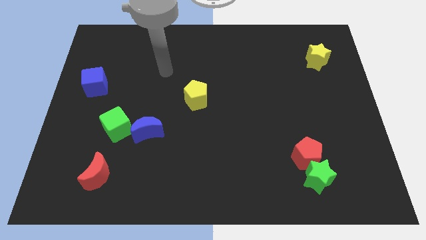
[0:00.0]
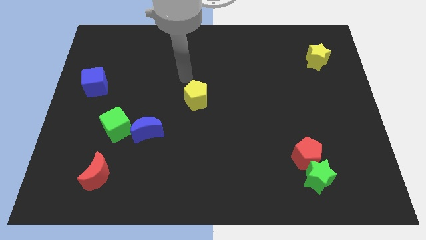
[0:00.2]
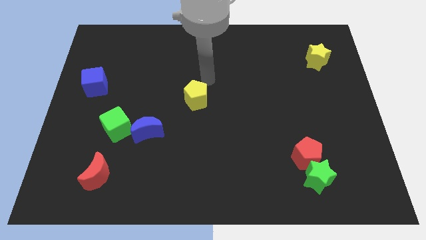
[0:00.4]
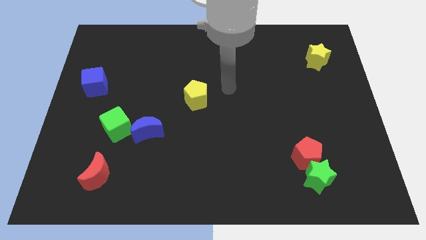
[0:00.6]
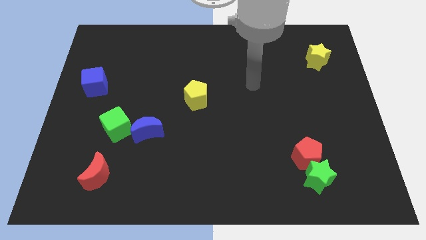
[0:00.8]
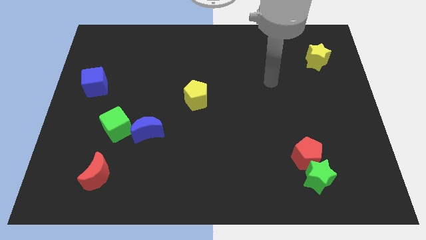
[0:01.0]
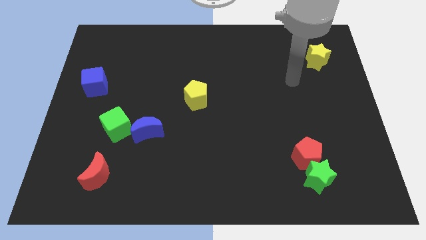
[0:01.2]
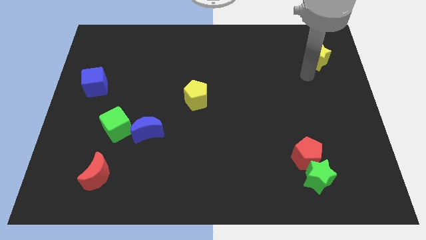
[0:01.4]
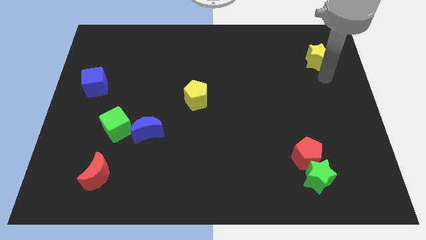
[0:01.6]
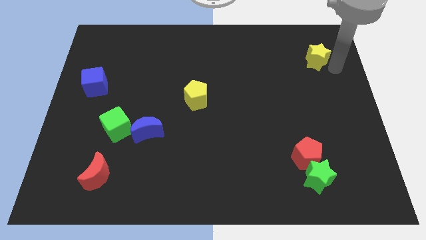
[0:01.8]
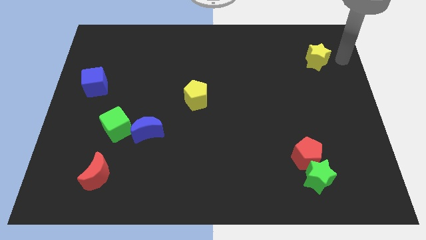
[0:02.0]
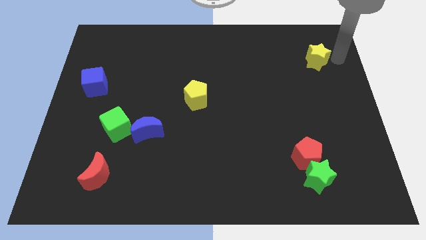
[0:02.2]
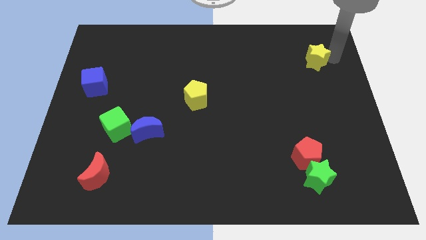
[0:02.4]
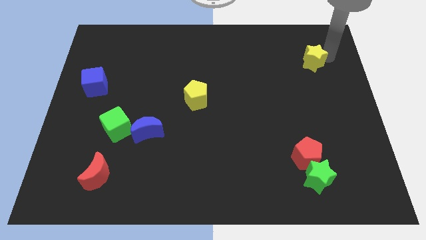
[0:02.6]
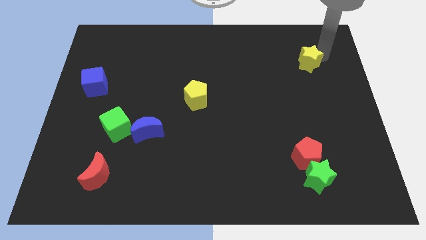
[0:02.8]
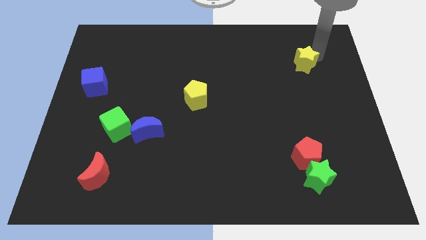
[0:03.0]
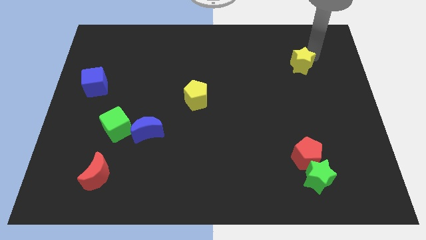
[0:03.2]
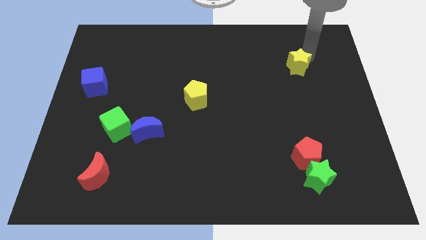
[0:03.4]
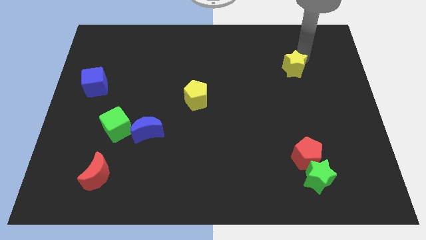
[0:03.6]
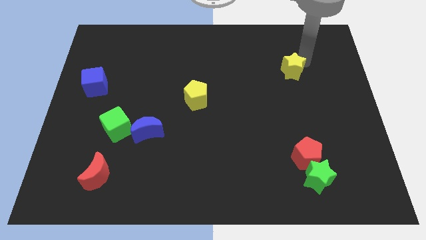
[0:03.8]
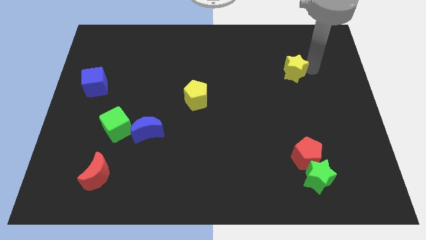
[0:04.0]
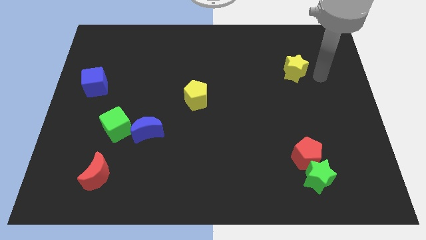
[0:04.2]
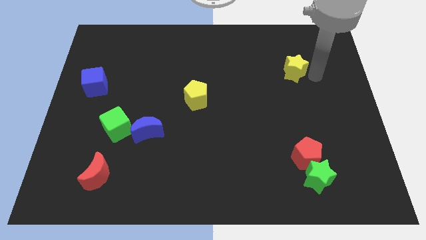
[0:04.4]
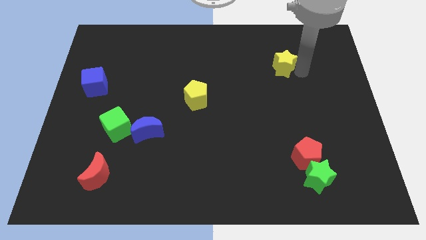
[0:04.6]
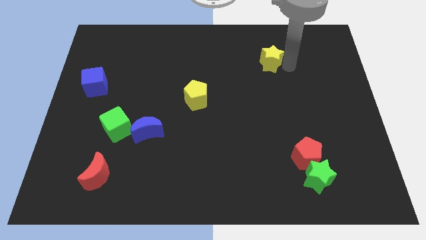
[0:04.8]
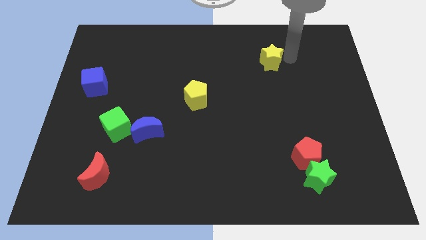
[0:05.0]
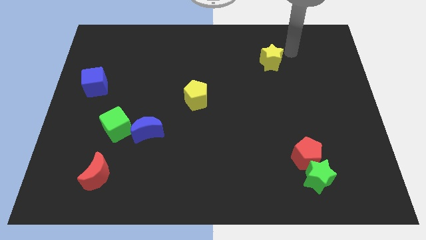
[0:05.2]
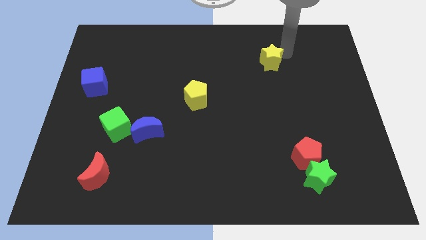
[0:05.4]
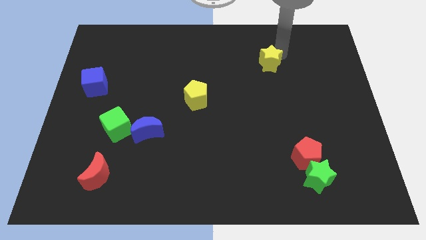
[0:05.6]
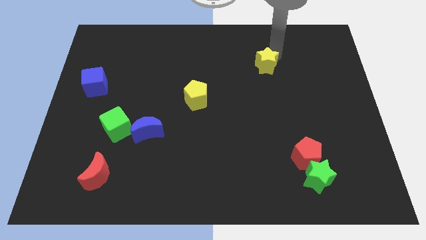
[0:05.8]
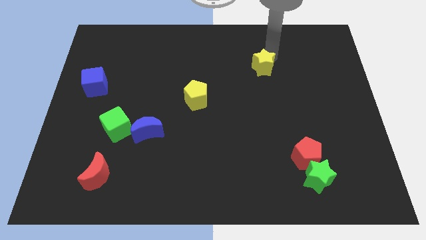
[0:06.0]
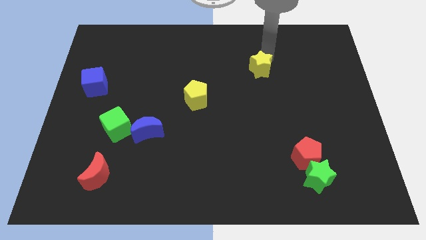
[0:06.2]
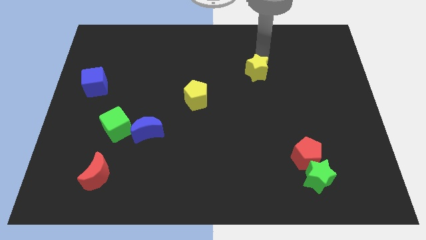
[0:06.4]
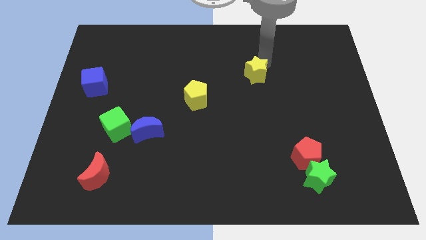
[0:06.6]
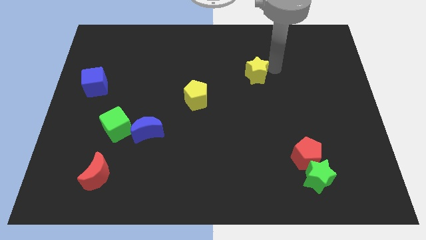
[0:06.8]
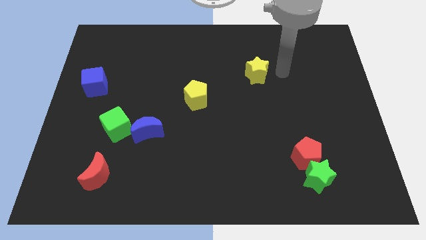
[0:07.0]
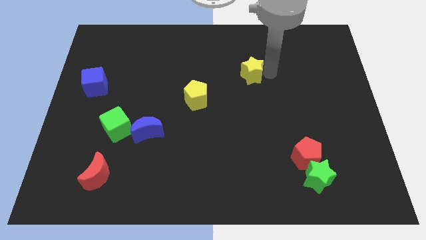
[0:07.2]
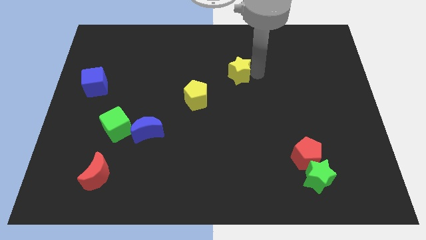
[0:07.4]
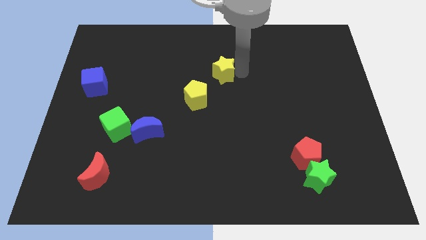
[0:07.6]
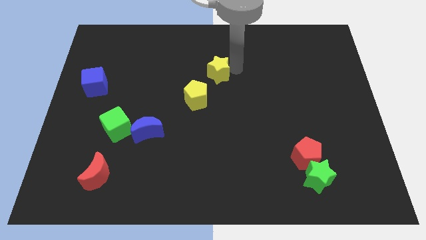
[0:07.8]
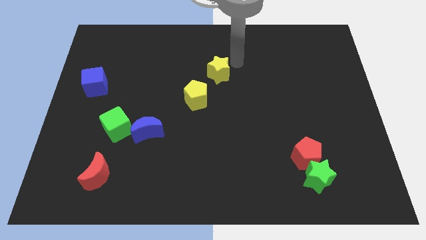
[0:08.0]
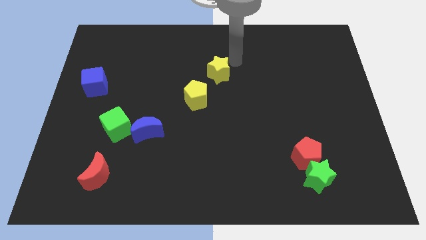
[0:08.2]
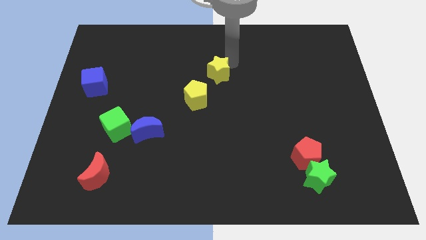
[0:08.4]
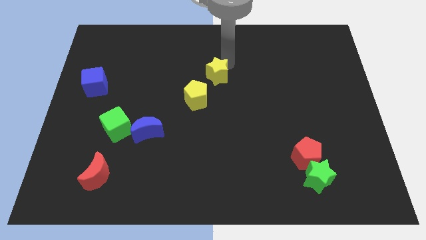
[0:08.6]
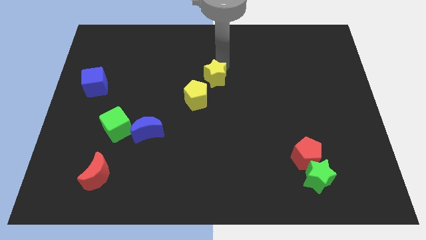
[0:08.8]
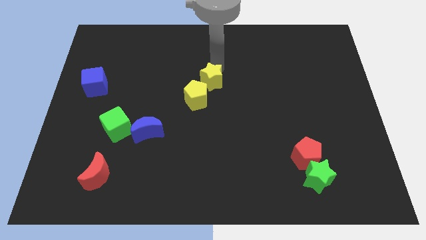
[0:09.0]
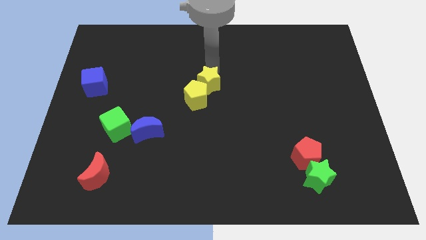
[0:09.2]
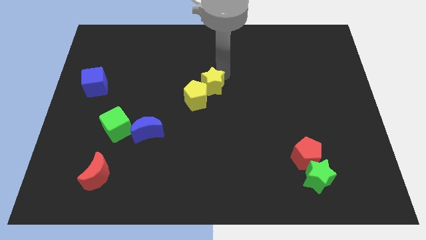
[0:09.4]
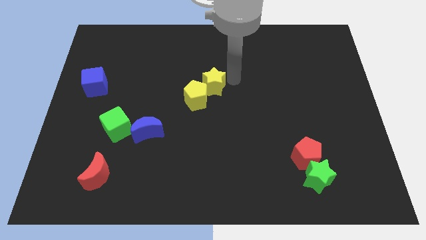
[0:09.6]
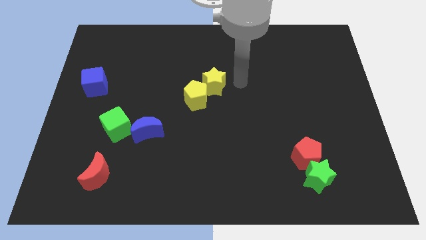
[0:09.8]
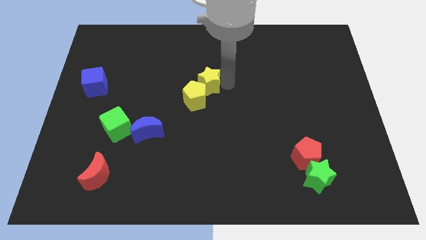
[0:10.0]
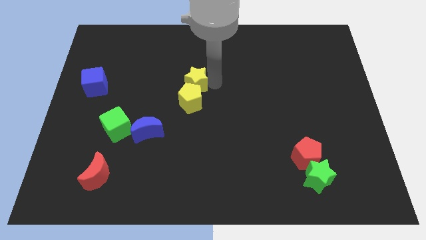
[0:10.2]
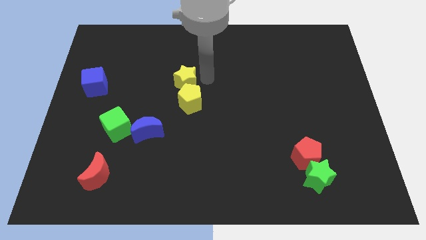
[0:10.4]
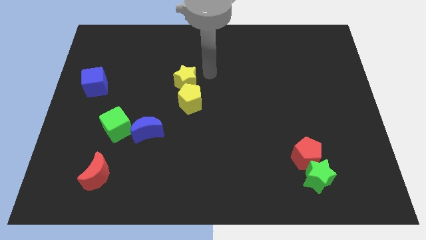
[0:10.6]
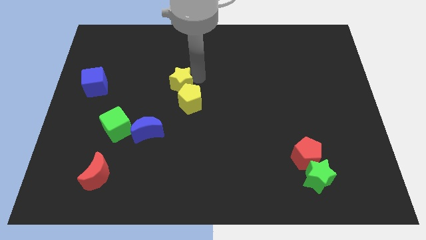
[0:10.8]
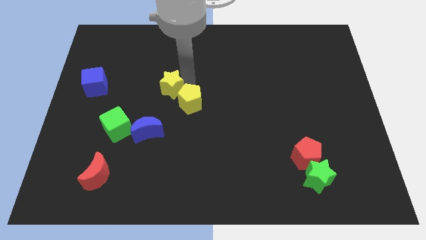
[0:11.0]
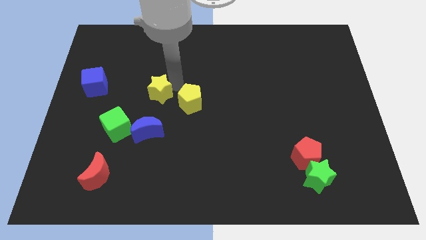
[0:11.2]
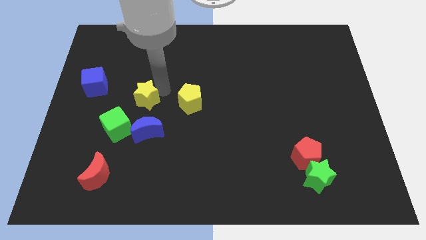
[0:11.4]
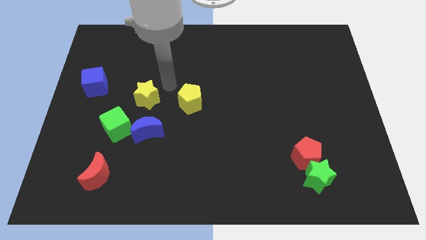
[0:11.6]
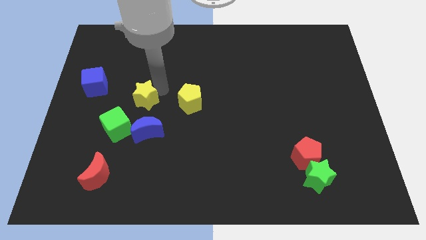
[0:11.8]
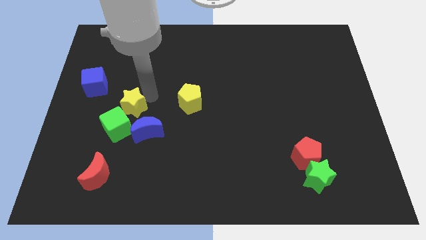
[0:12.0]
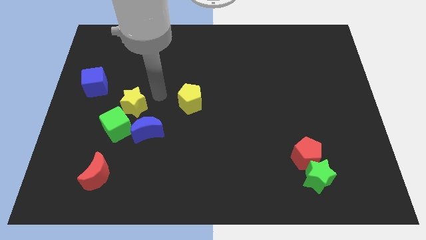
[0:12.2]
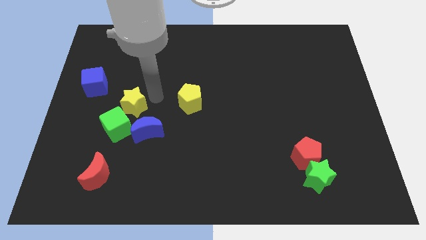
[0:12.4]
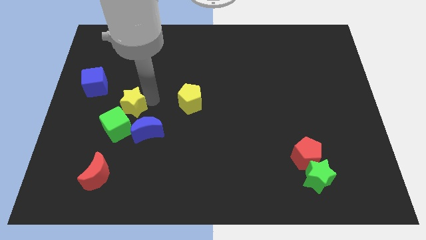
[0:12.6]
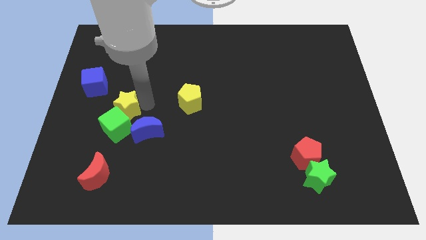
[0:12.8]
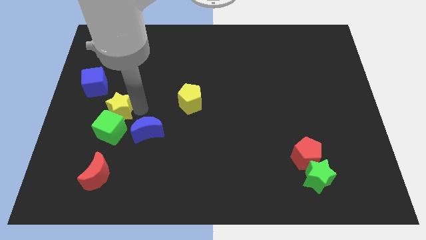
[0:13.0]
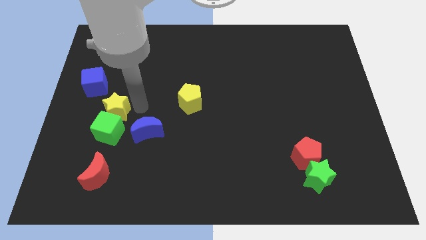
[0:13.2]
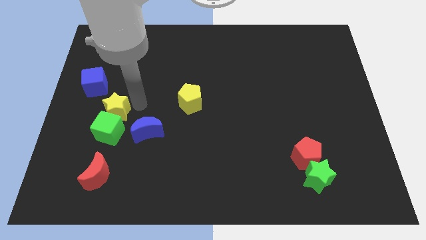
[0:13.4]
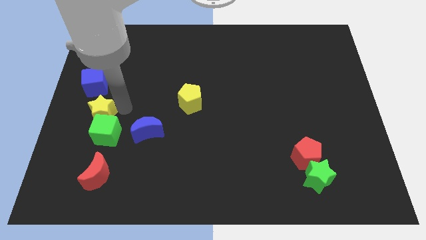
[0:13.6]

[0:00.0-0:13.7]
move the yellow star below the blue cube

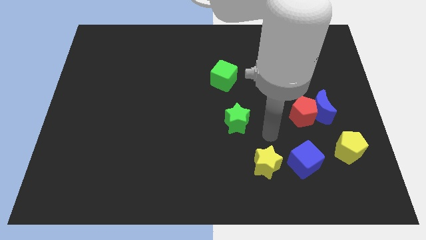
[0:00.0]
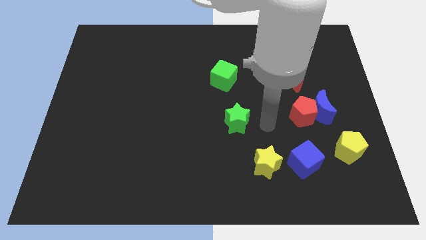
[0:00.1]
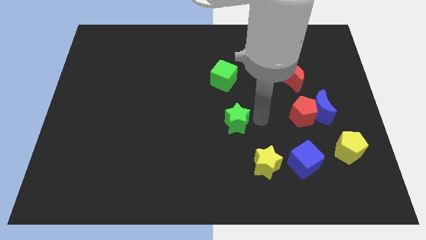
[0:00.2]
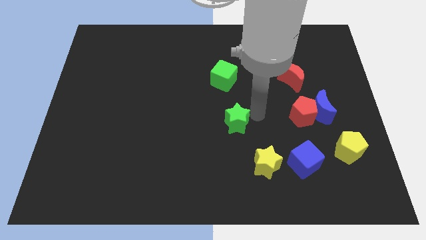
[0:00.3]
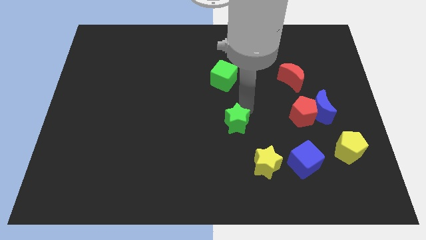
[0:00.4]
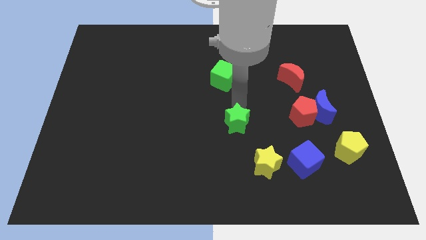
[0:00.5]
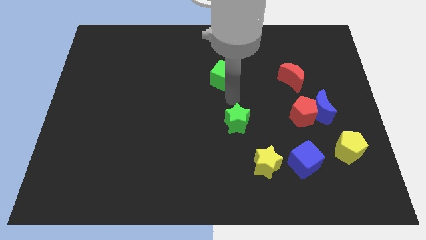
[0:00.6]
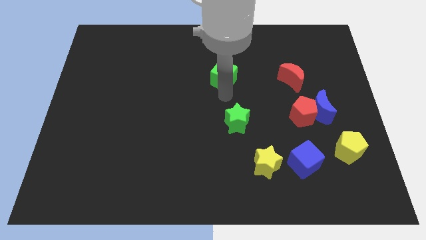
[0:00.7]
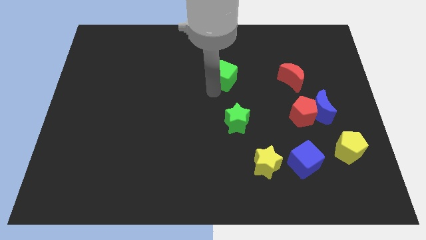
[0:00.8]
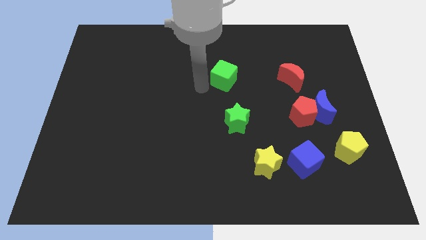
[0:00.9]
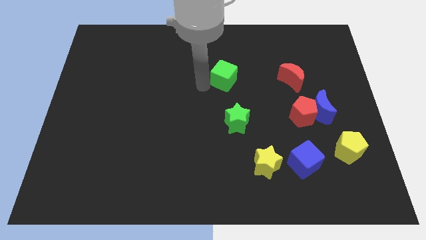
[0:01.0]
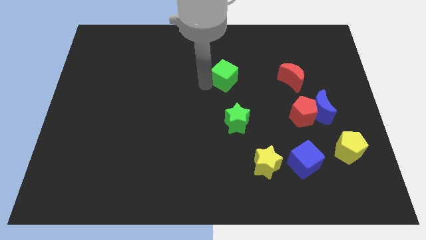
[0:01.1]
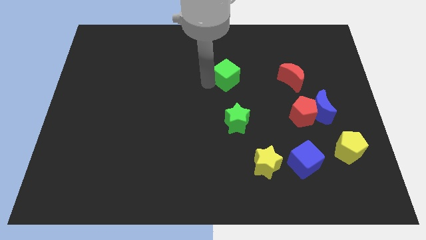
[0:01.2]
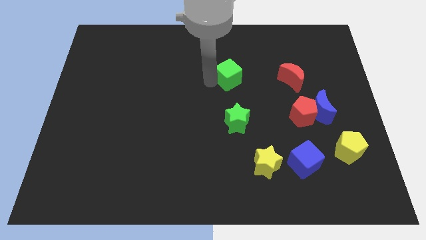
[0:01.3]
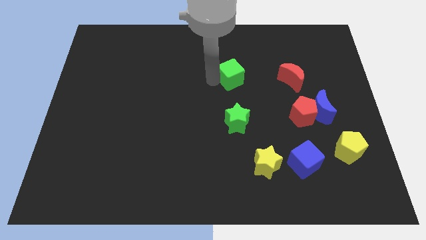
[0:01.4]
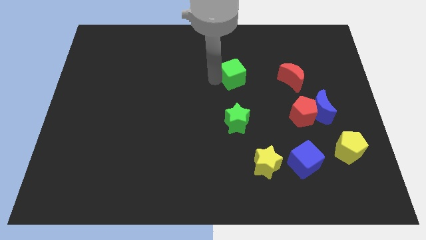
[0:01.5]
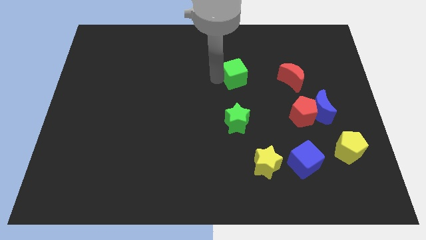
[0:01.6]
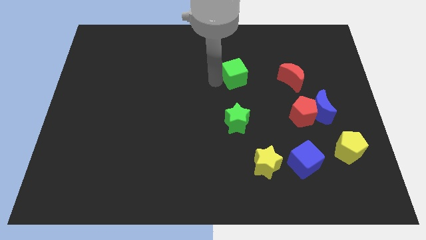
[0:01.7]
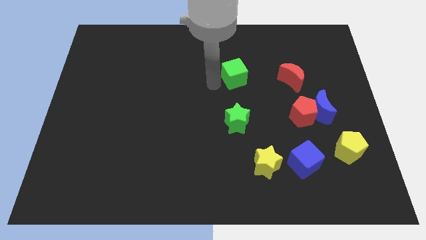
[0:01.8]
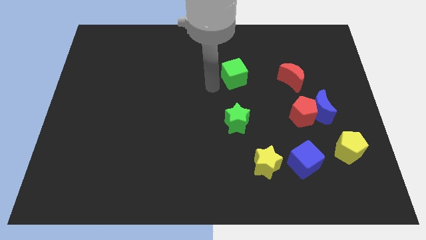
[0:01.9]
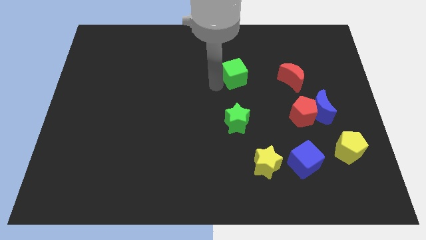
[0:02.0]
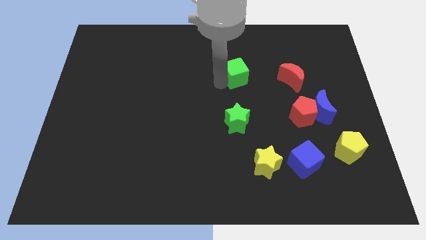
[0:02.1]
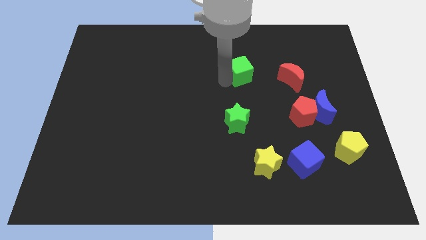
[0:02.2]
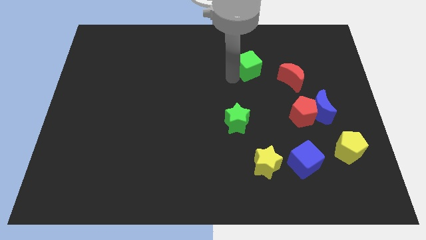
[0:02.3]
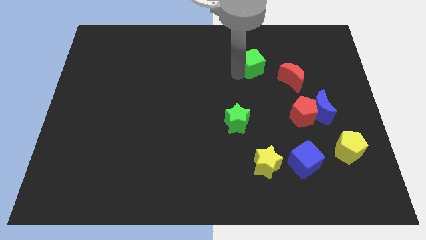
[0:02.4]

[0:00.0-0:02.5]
put the green cube to the top left side of the red moon
